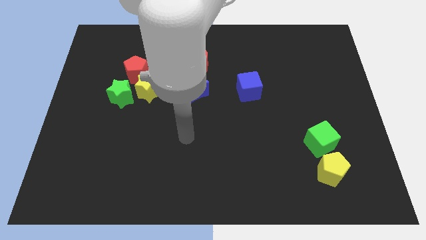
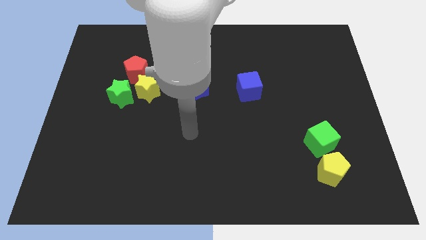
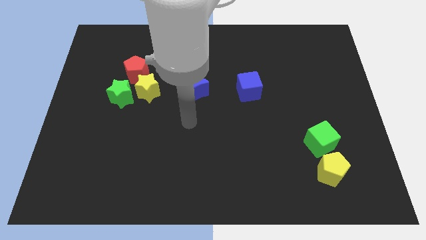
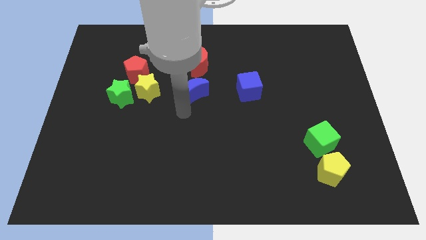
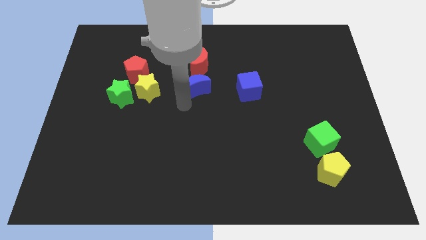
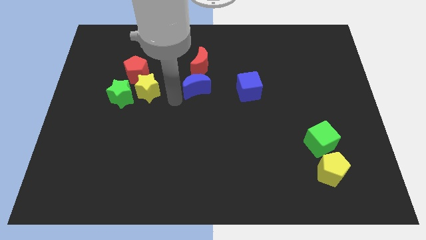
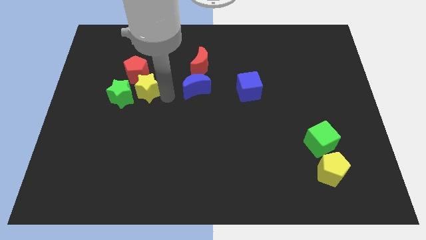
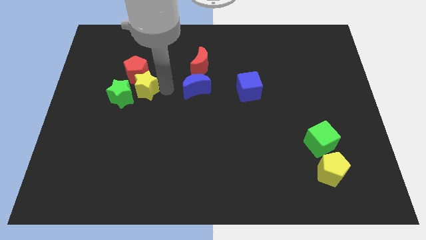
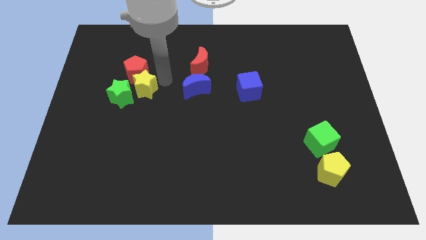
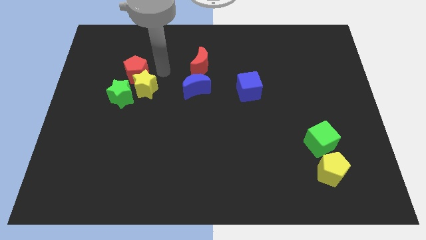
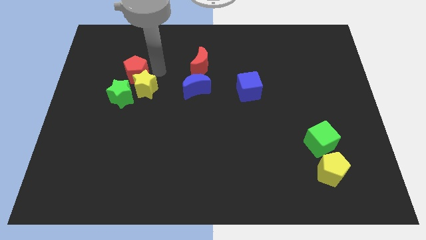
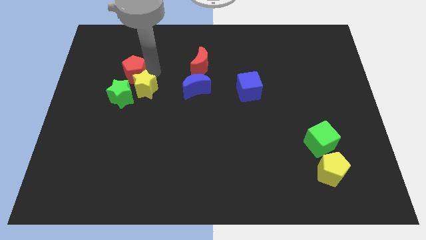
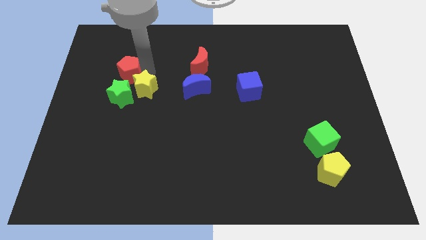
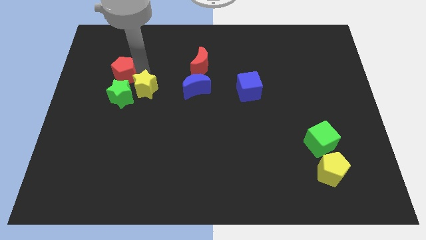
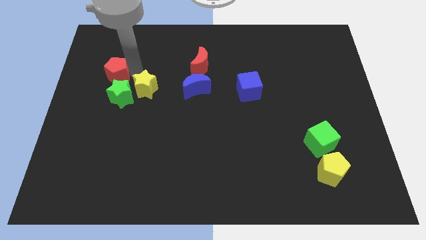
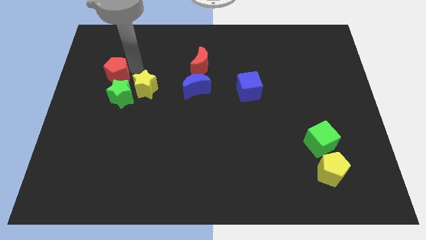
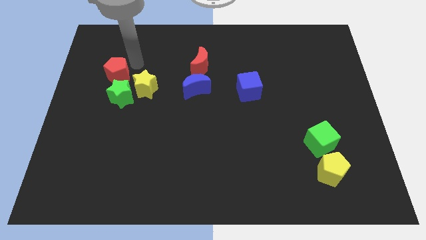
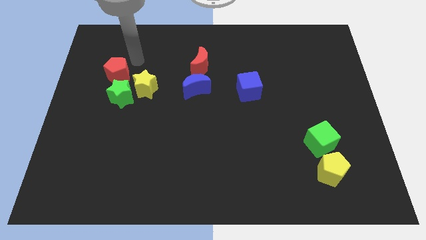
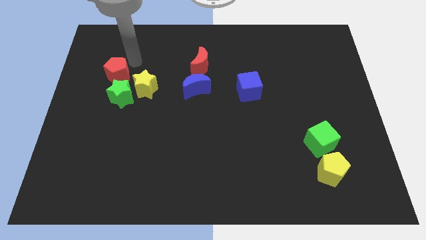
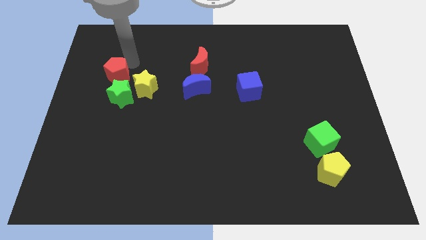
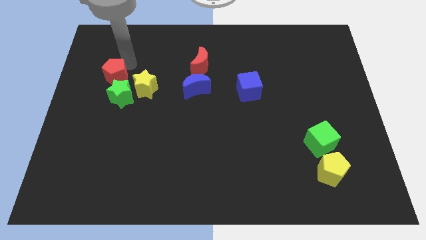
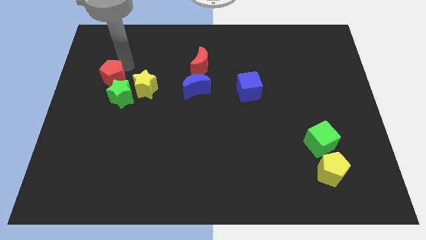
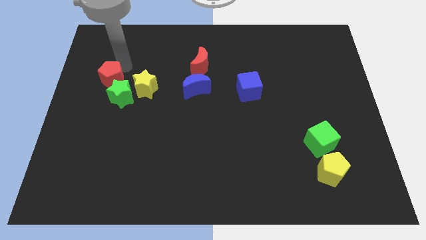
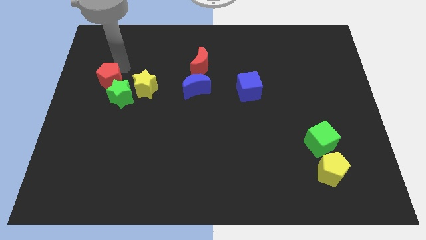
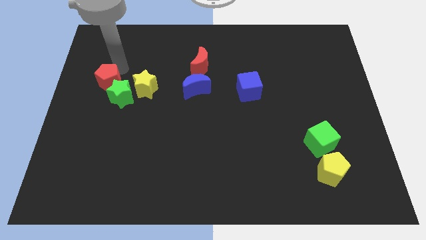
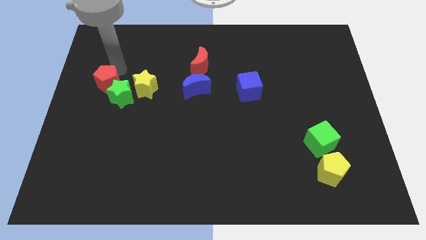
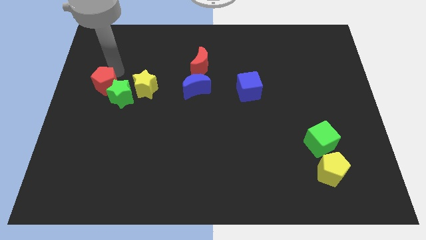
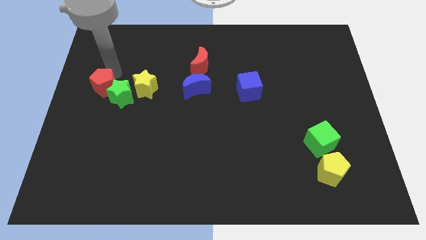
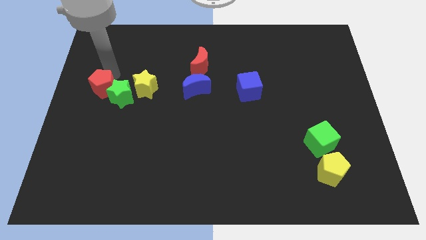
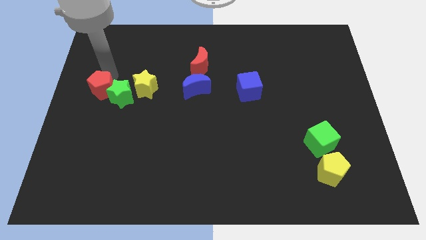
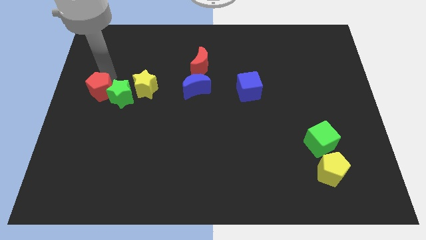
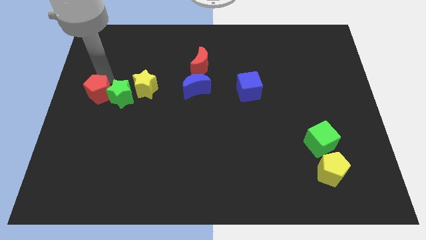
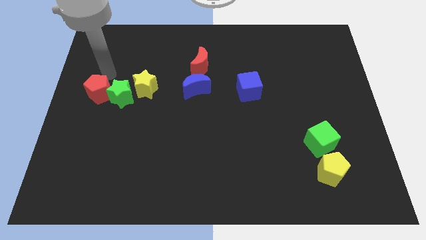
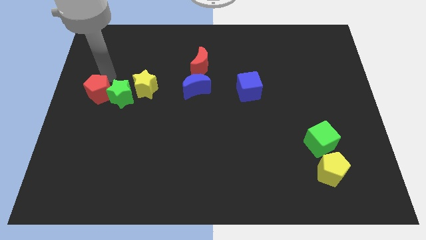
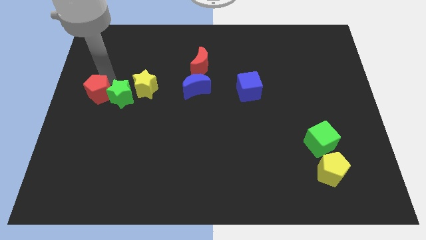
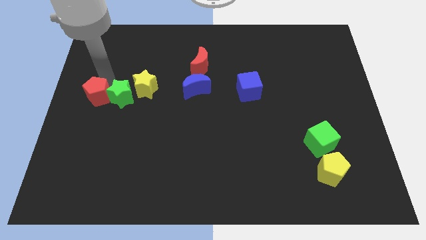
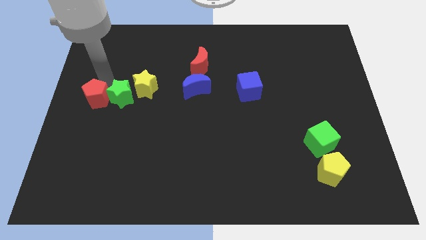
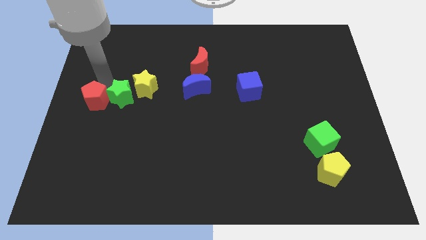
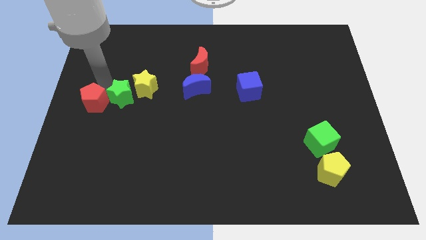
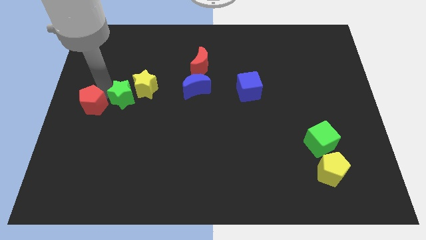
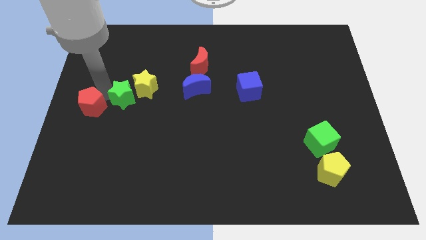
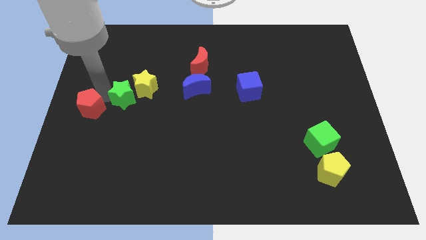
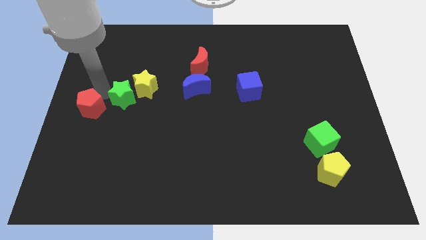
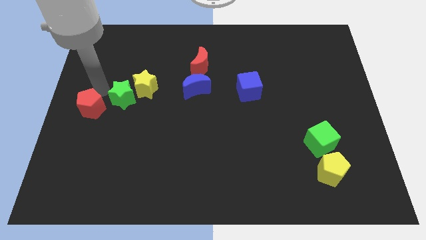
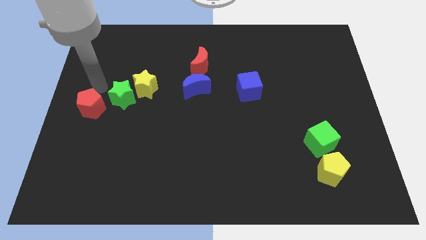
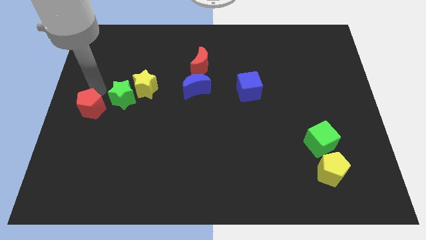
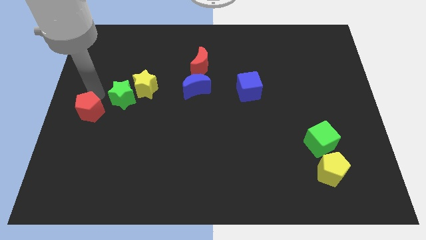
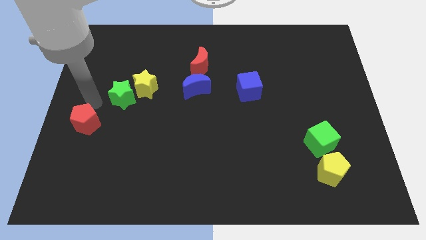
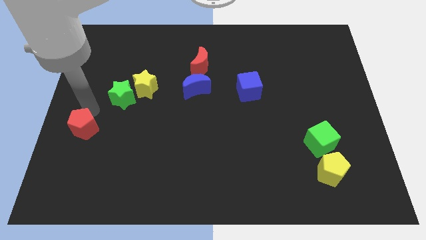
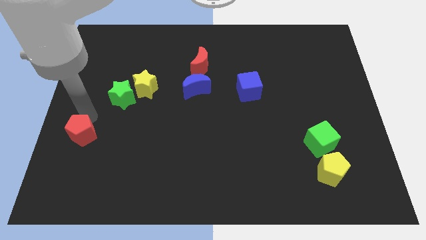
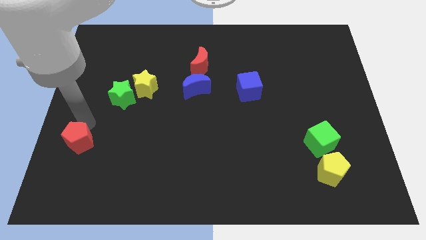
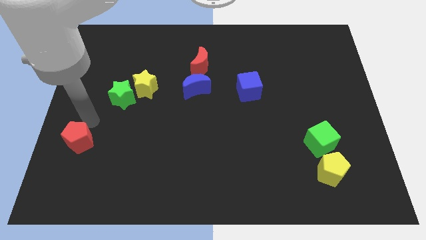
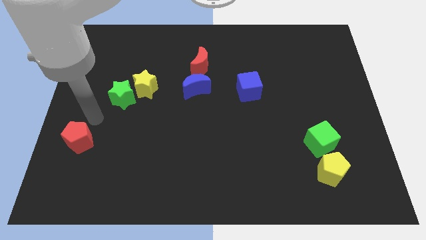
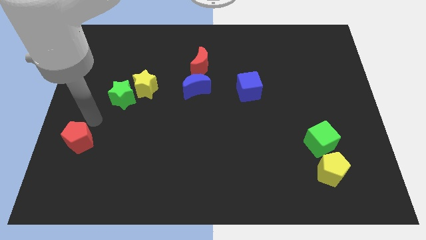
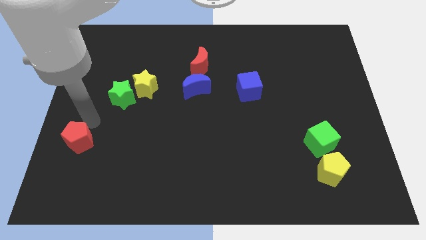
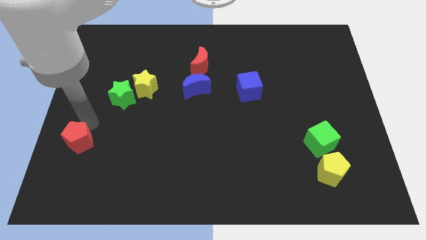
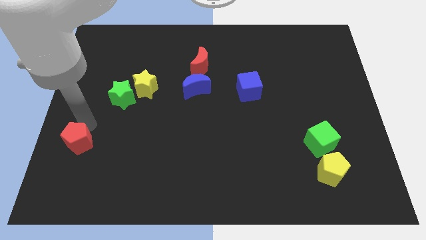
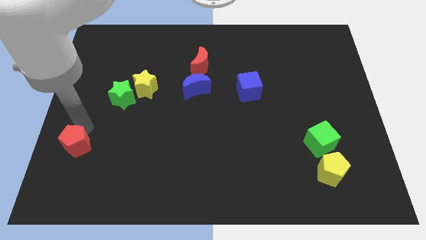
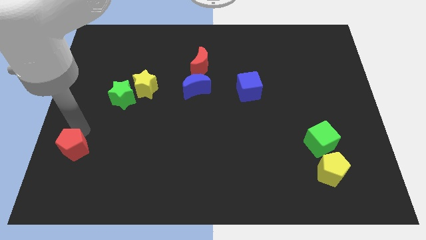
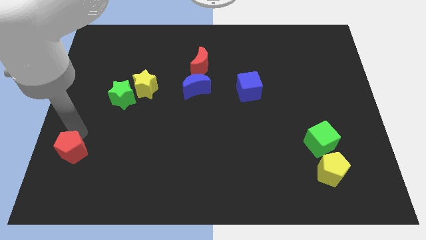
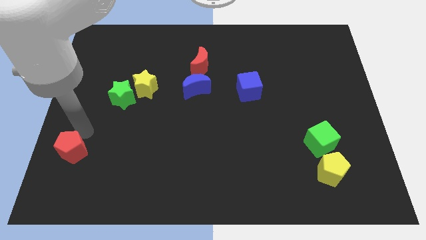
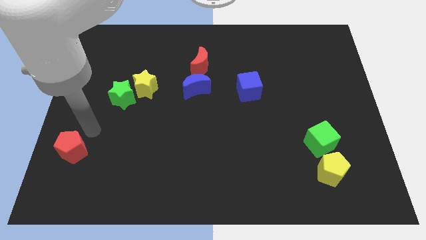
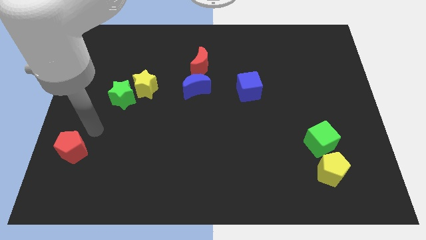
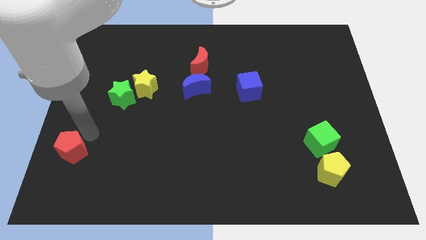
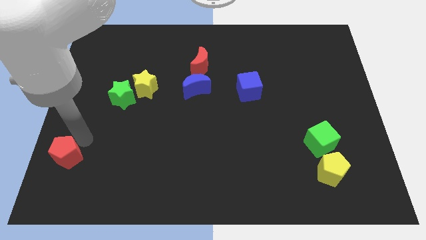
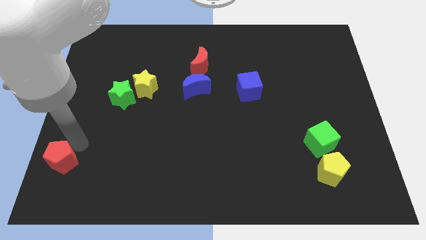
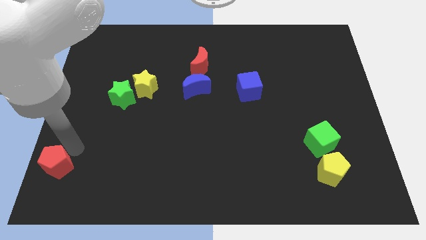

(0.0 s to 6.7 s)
push the red pentagon to the lower left corner
